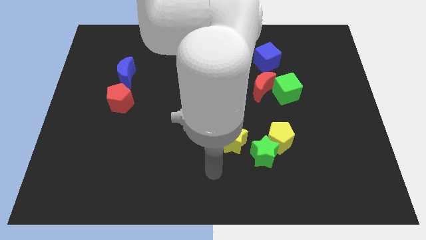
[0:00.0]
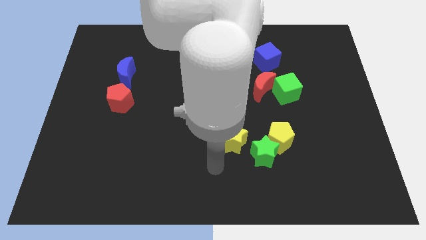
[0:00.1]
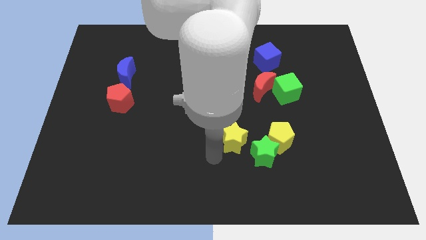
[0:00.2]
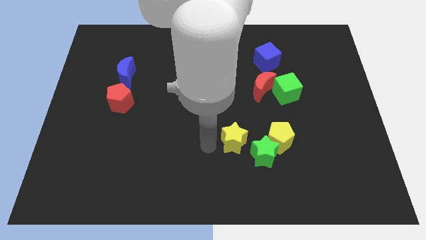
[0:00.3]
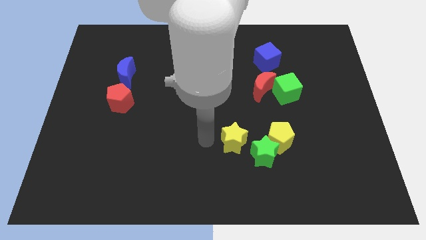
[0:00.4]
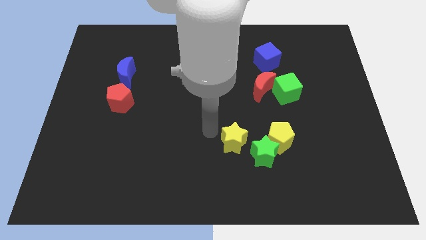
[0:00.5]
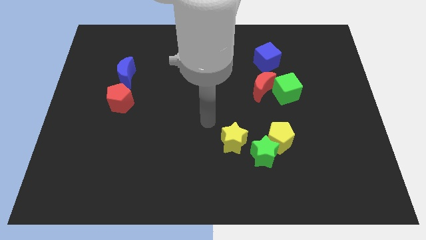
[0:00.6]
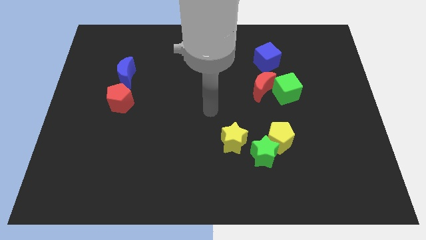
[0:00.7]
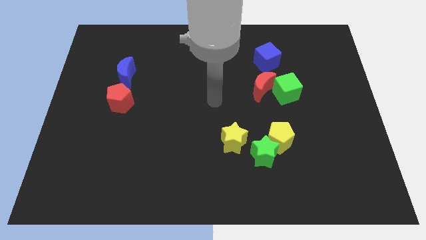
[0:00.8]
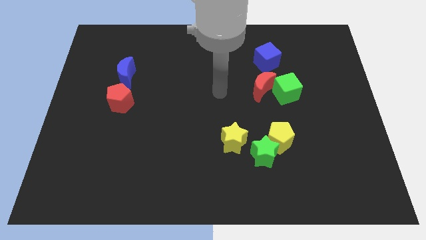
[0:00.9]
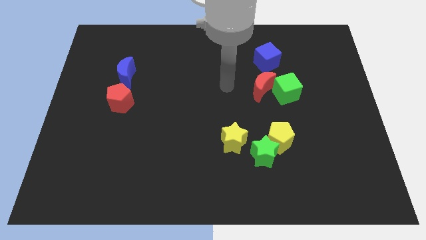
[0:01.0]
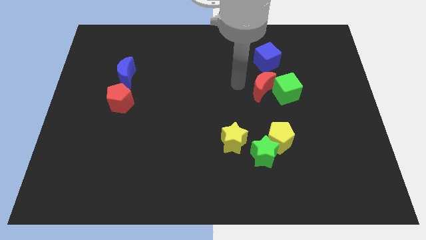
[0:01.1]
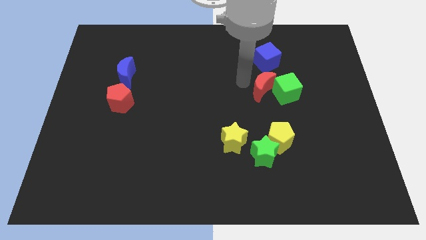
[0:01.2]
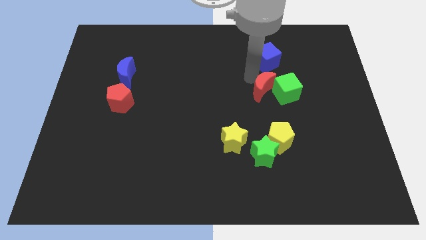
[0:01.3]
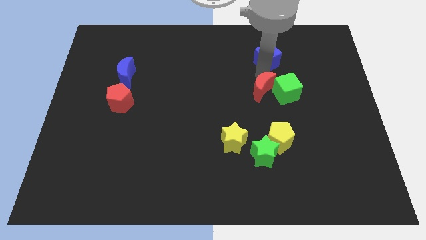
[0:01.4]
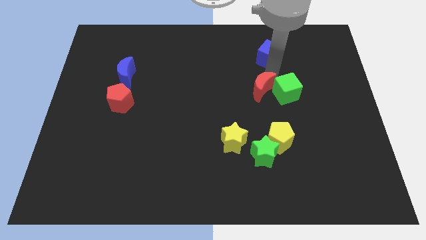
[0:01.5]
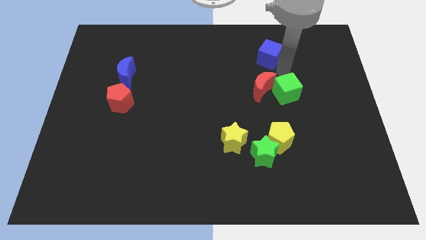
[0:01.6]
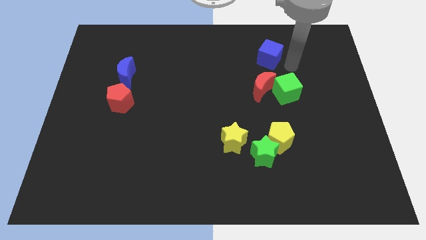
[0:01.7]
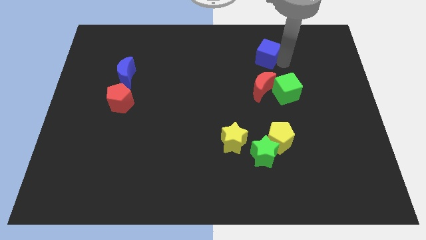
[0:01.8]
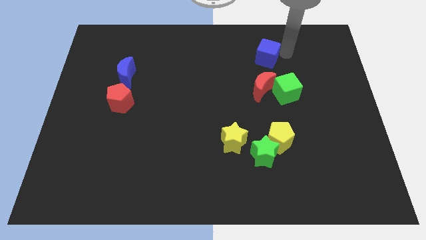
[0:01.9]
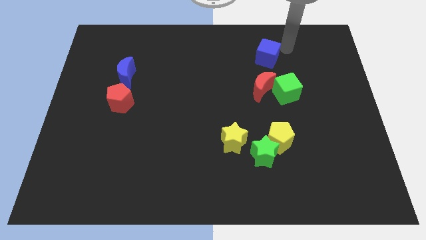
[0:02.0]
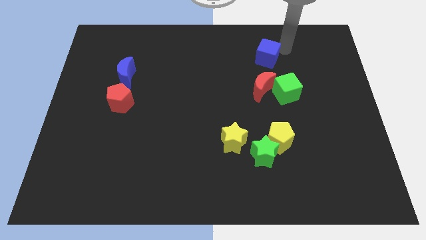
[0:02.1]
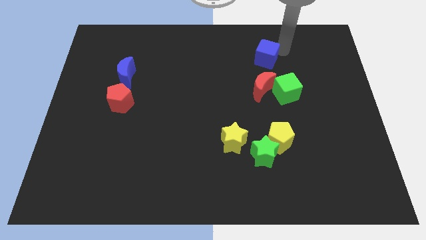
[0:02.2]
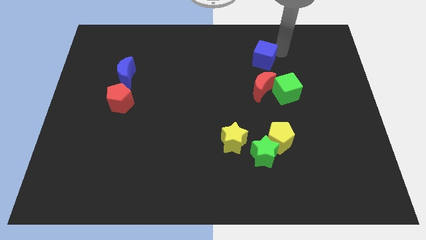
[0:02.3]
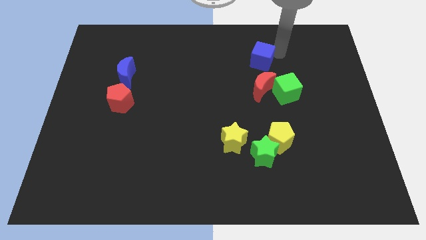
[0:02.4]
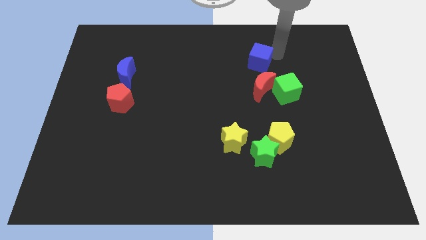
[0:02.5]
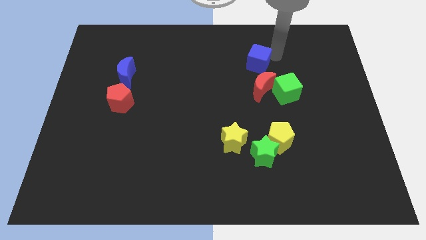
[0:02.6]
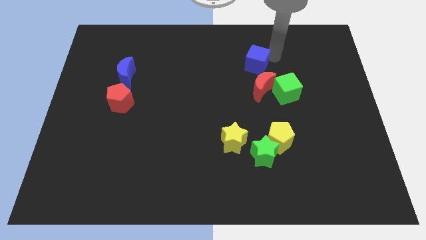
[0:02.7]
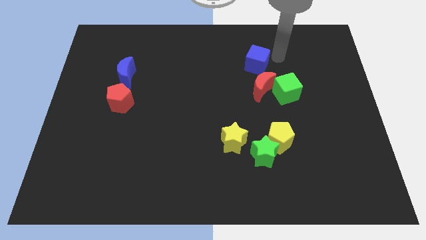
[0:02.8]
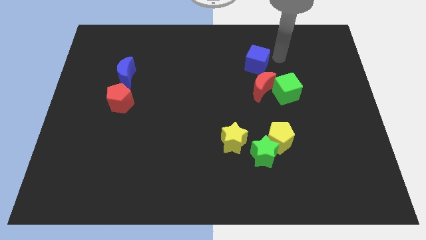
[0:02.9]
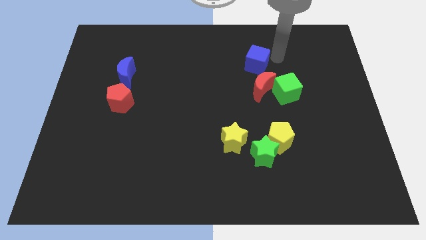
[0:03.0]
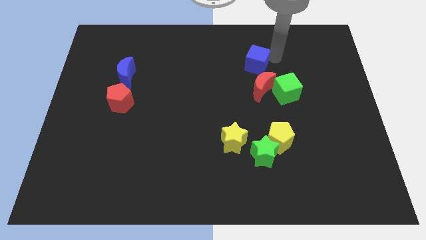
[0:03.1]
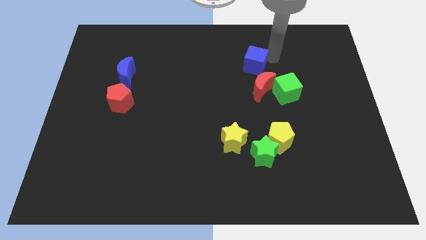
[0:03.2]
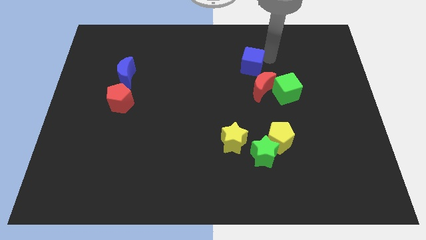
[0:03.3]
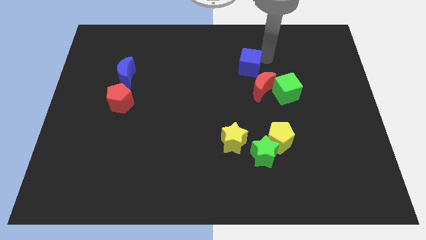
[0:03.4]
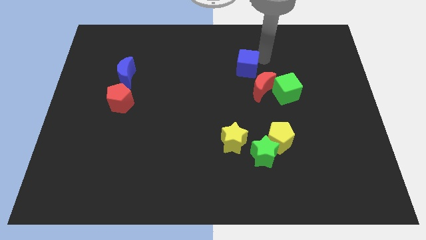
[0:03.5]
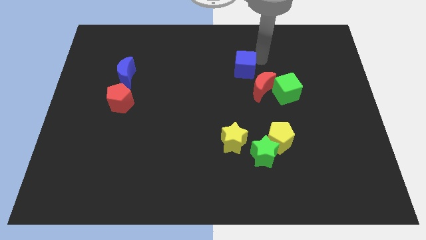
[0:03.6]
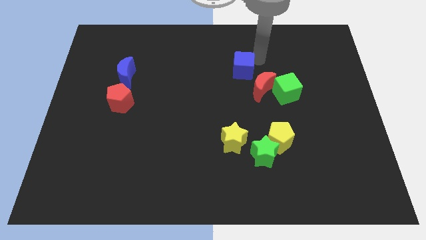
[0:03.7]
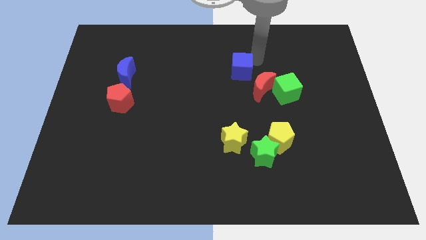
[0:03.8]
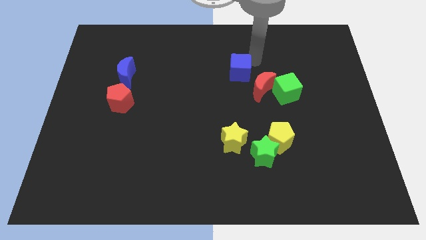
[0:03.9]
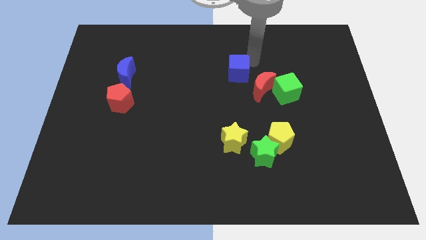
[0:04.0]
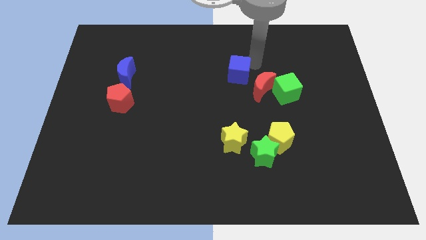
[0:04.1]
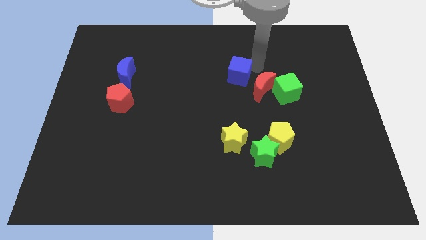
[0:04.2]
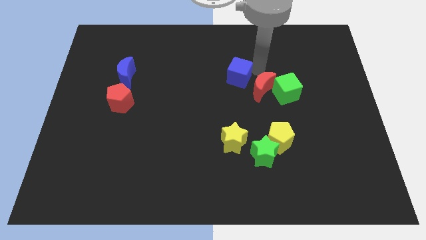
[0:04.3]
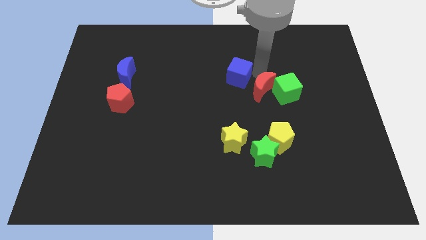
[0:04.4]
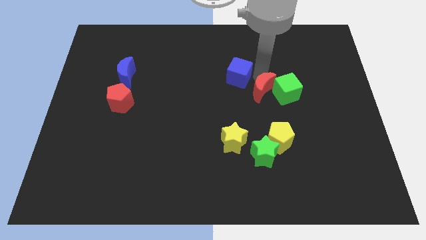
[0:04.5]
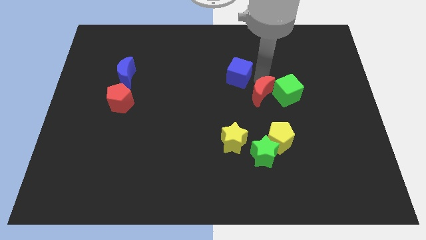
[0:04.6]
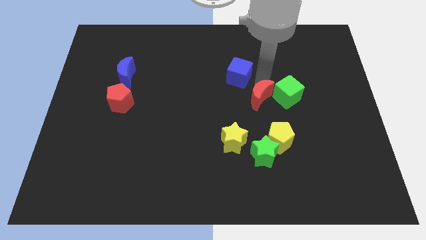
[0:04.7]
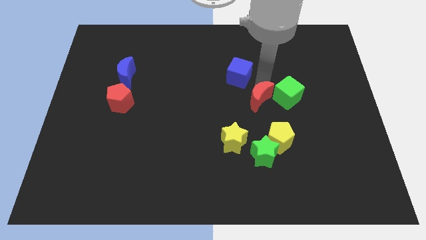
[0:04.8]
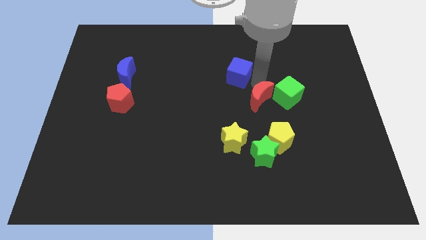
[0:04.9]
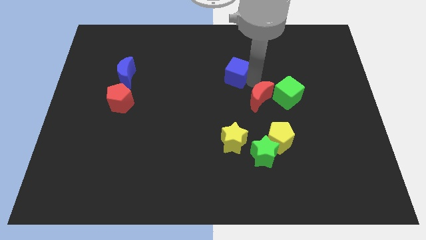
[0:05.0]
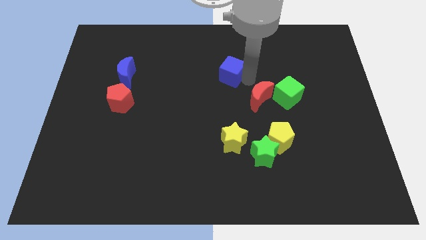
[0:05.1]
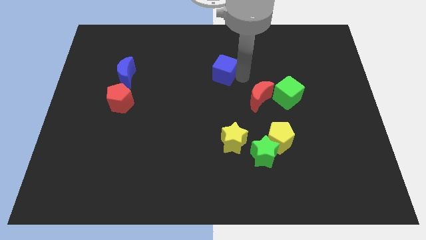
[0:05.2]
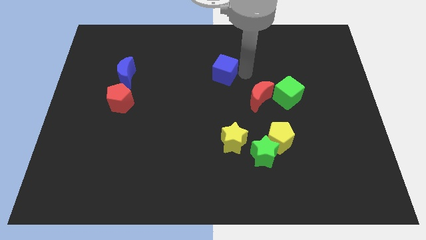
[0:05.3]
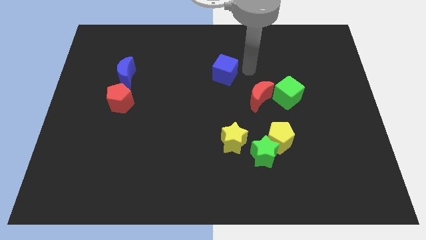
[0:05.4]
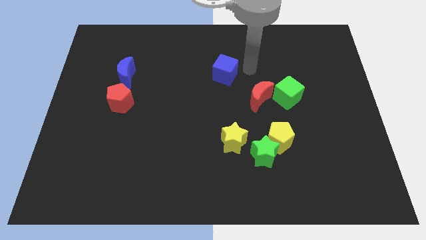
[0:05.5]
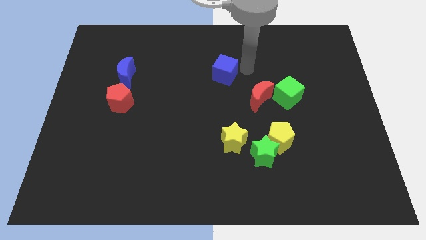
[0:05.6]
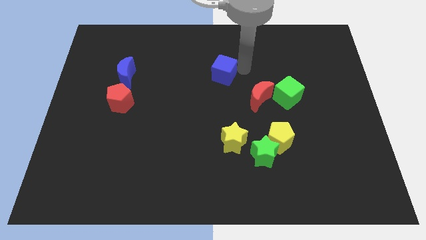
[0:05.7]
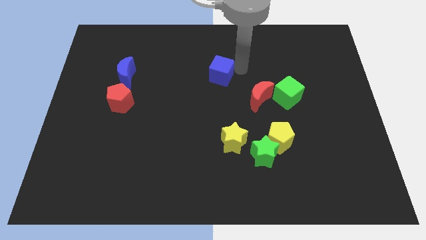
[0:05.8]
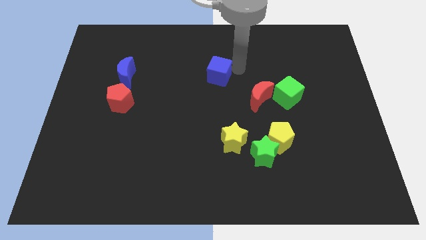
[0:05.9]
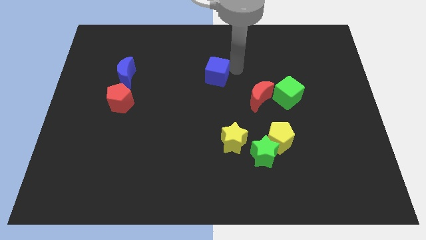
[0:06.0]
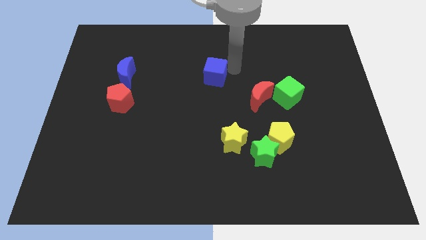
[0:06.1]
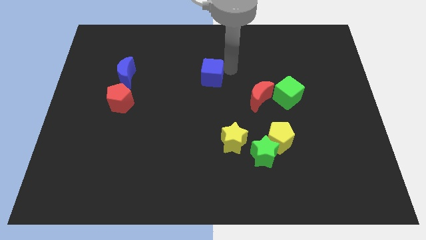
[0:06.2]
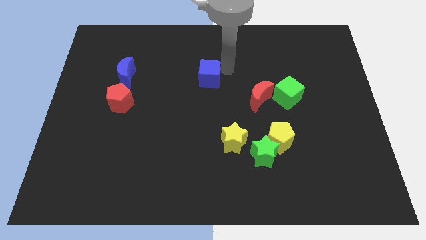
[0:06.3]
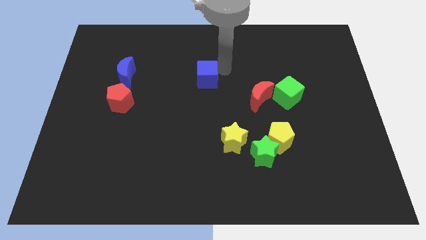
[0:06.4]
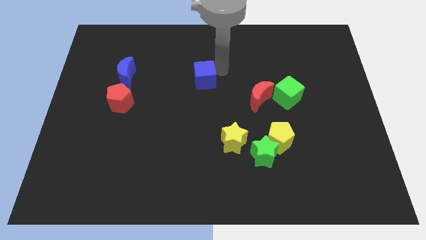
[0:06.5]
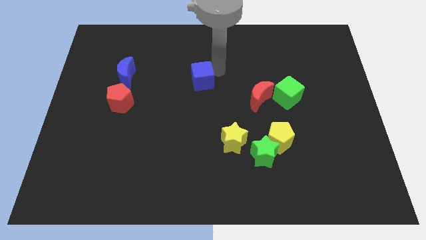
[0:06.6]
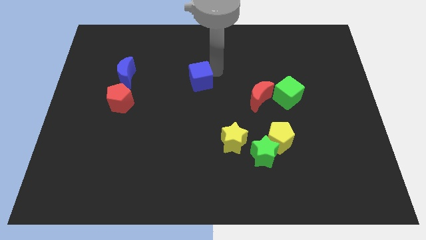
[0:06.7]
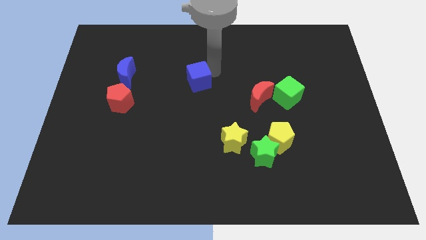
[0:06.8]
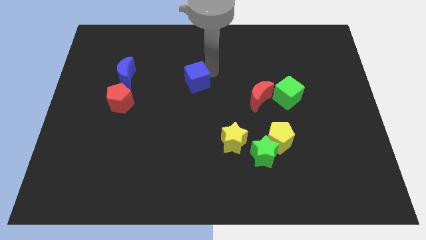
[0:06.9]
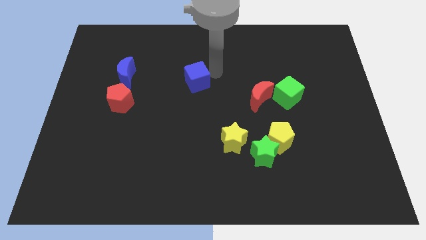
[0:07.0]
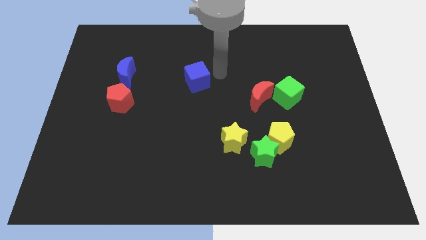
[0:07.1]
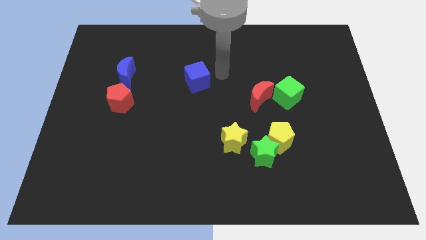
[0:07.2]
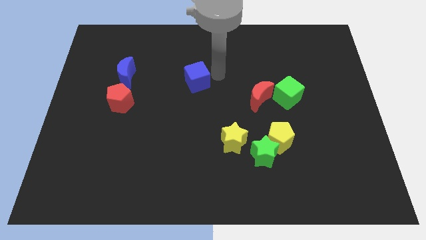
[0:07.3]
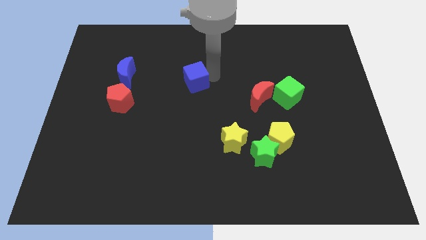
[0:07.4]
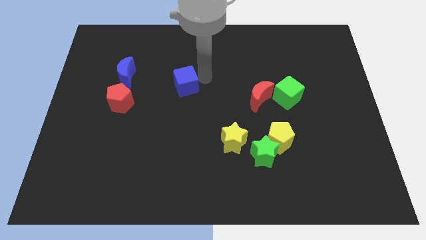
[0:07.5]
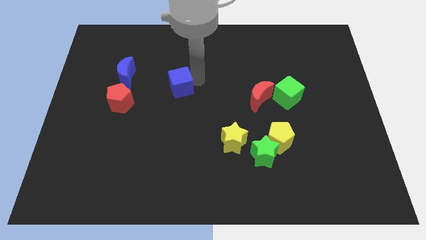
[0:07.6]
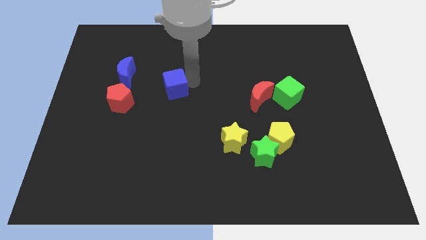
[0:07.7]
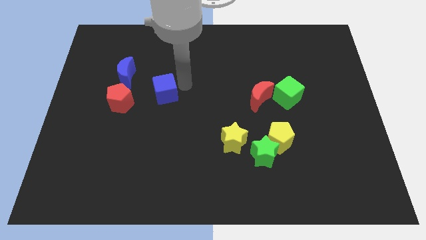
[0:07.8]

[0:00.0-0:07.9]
push the blue cube diagonally down and to the right of the blue moon
